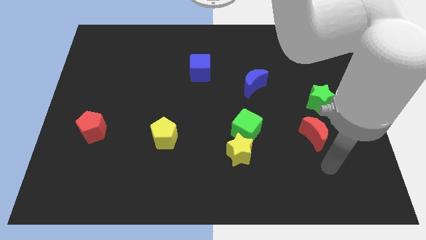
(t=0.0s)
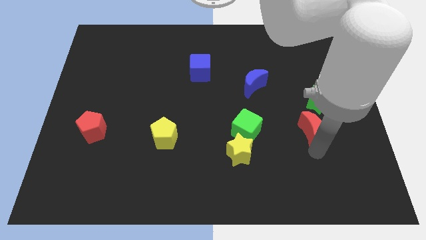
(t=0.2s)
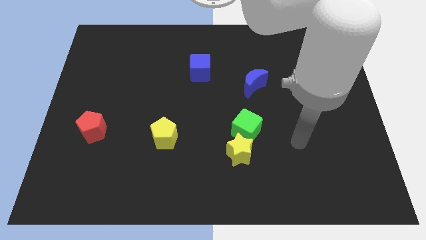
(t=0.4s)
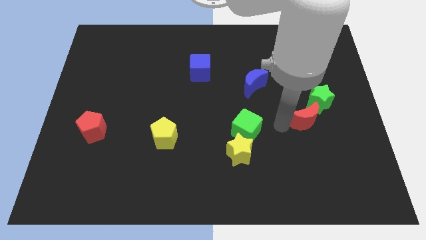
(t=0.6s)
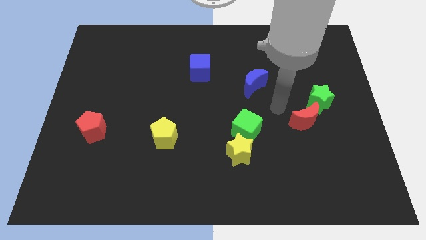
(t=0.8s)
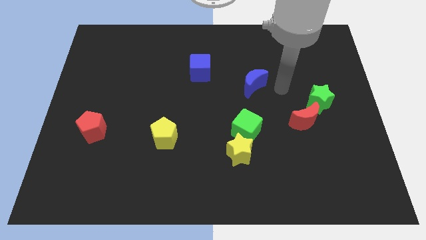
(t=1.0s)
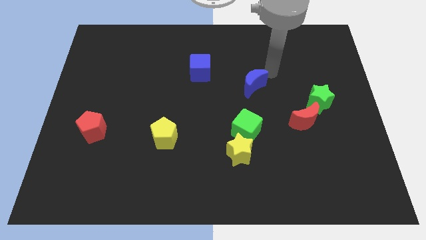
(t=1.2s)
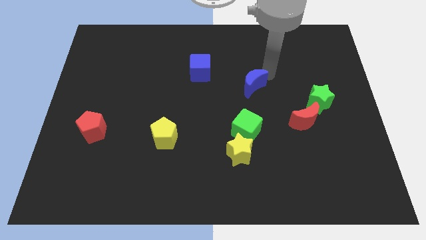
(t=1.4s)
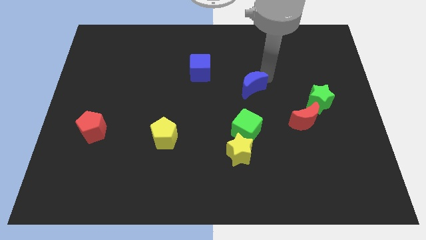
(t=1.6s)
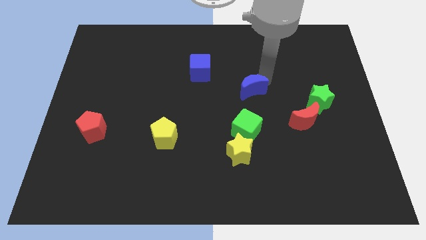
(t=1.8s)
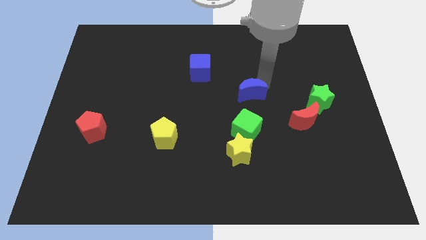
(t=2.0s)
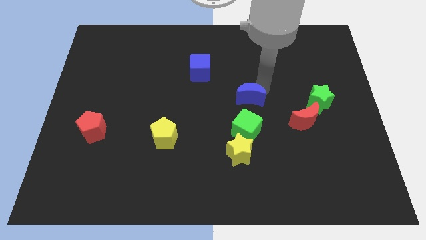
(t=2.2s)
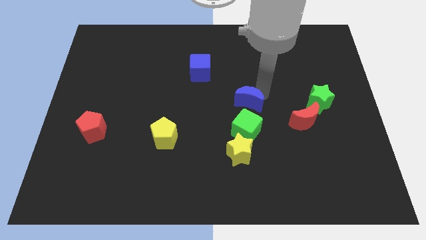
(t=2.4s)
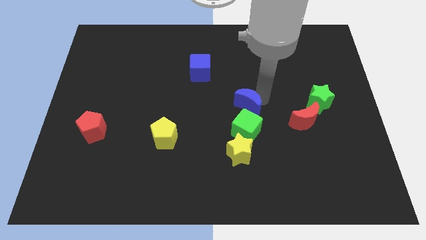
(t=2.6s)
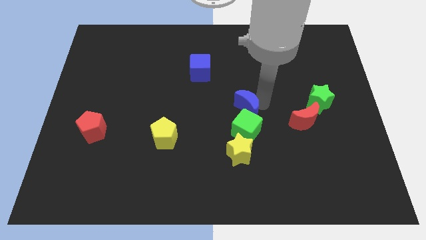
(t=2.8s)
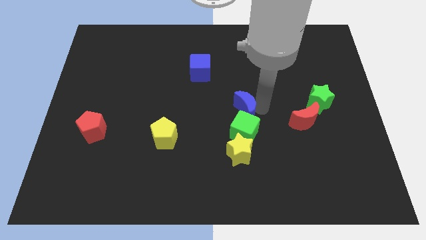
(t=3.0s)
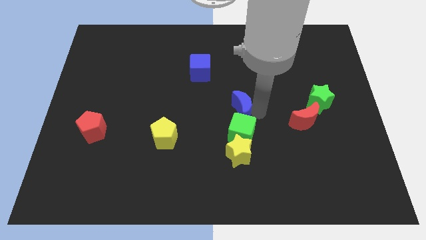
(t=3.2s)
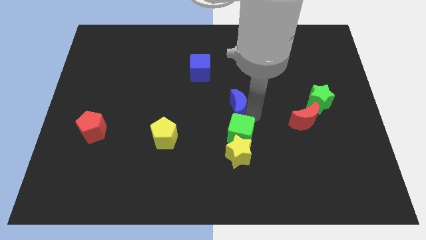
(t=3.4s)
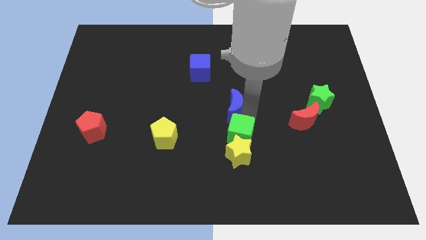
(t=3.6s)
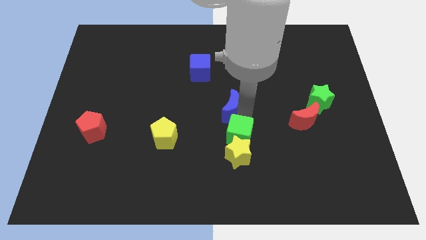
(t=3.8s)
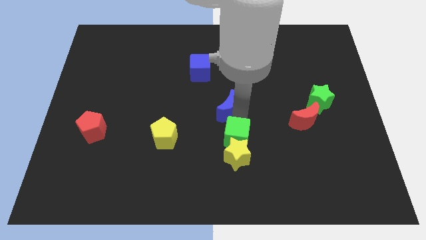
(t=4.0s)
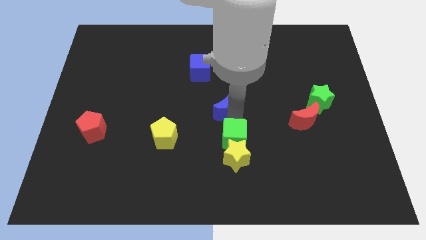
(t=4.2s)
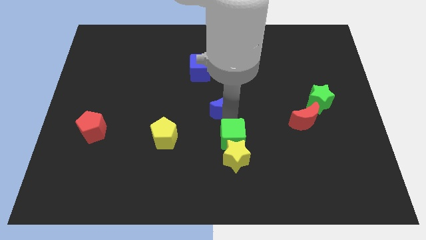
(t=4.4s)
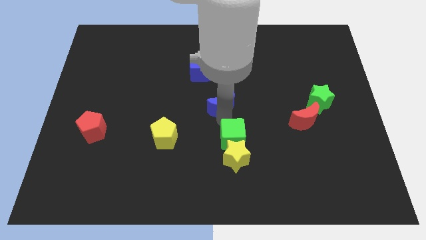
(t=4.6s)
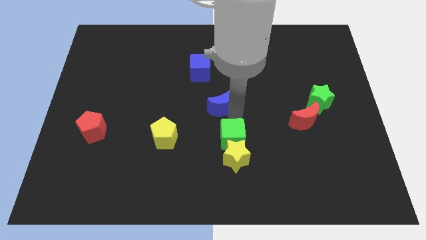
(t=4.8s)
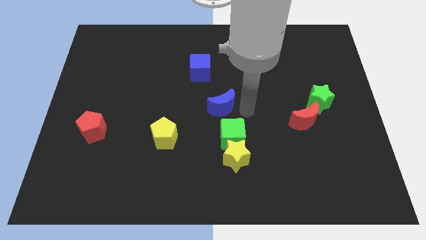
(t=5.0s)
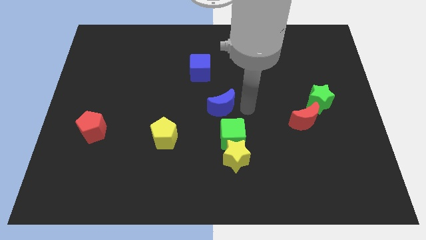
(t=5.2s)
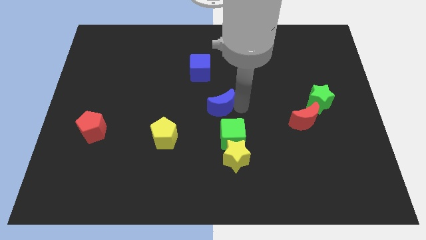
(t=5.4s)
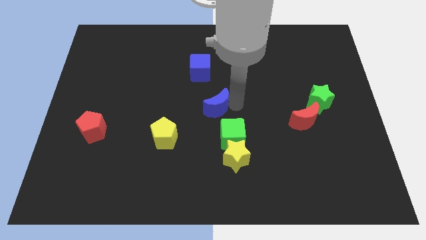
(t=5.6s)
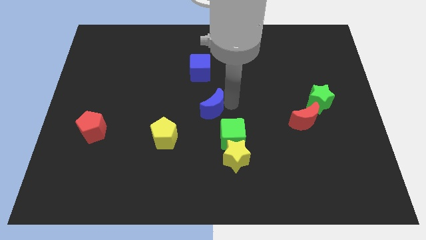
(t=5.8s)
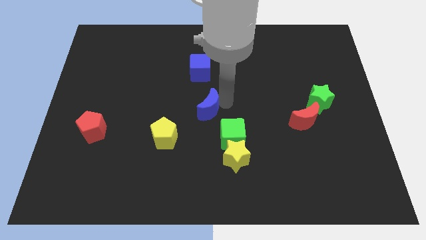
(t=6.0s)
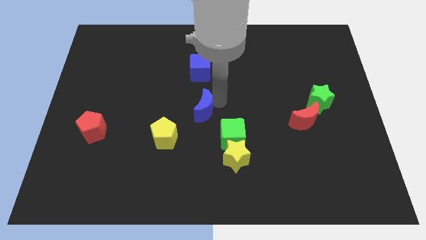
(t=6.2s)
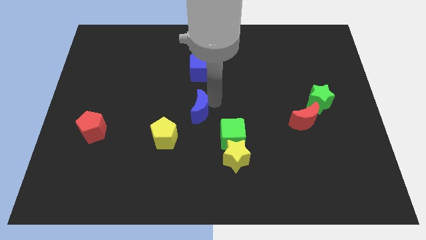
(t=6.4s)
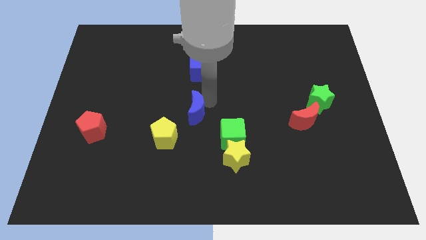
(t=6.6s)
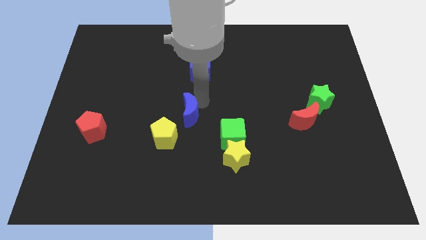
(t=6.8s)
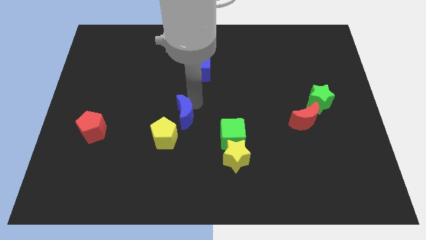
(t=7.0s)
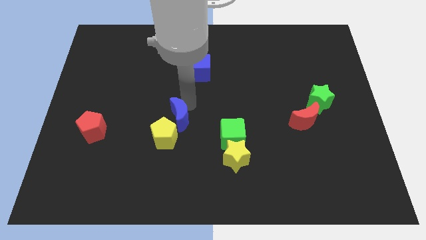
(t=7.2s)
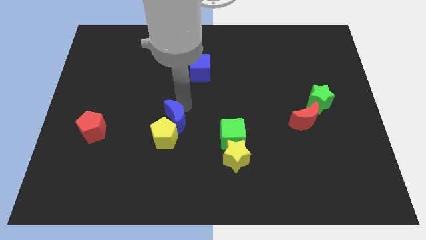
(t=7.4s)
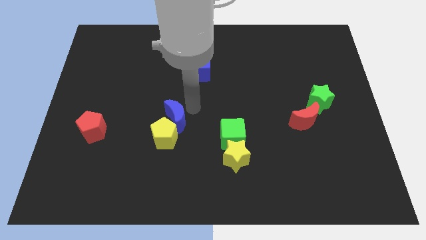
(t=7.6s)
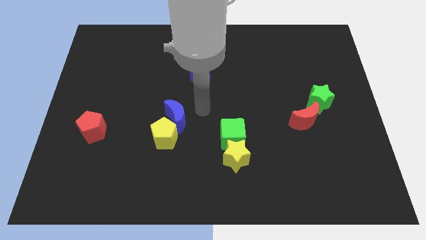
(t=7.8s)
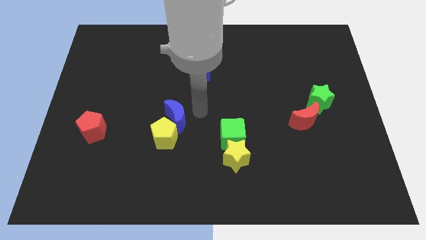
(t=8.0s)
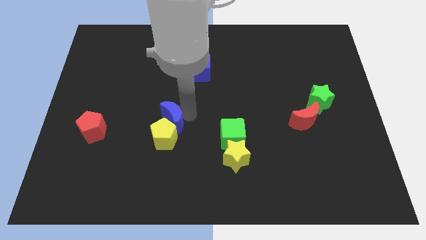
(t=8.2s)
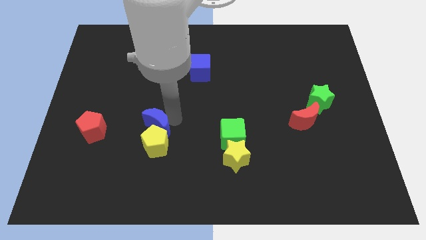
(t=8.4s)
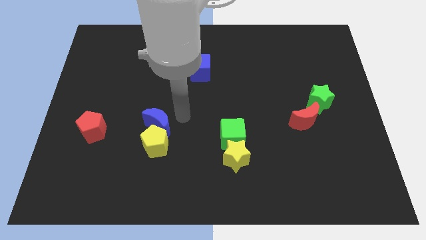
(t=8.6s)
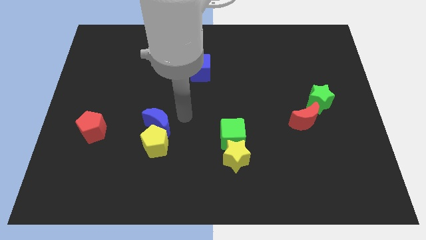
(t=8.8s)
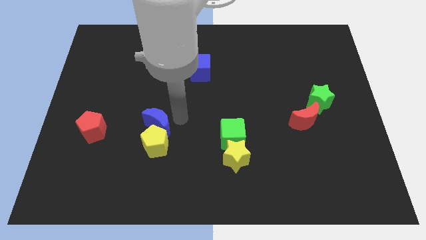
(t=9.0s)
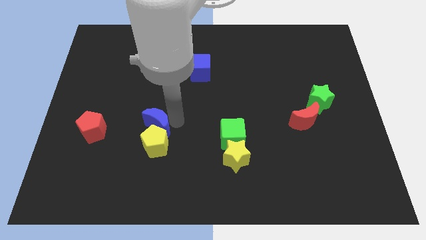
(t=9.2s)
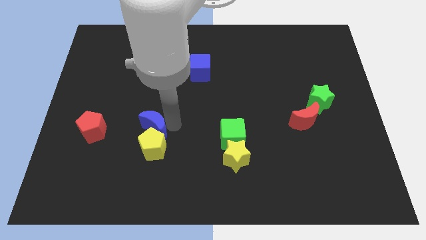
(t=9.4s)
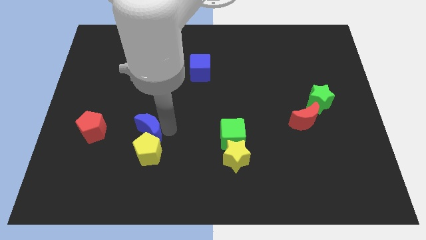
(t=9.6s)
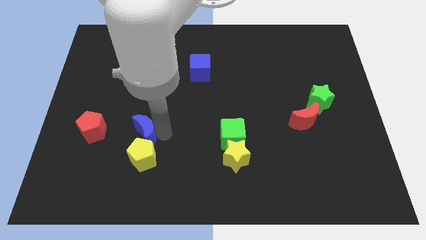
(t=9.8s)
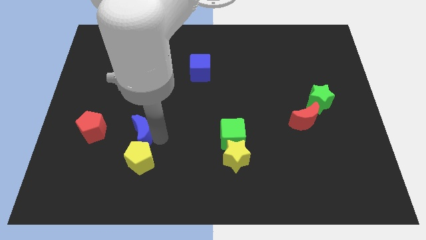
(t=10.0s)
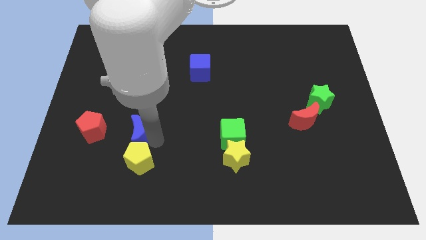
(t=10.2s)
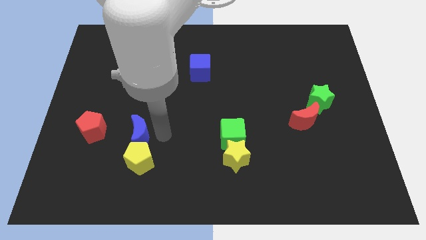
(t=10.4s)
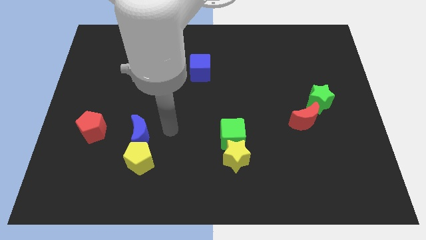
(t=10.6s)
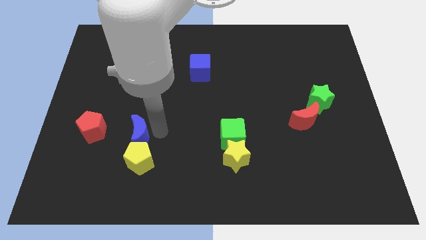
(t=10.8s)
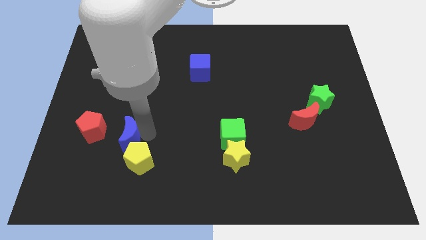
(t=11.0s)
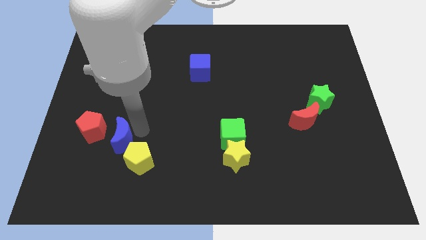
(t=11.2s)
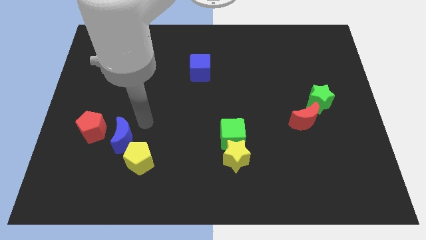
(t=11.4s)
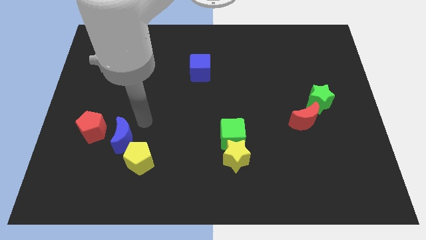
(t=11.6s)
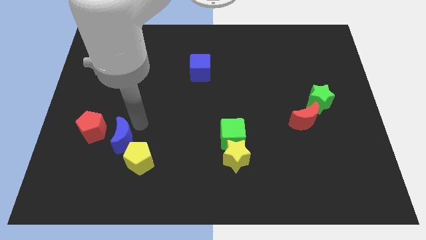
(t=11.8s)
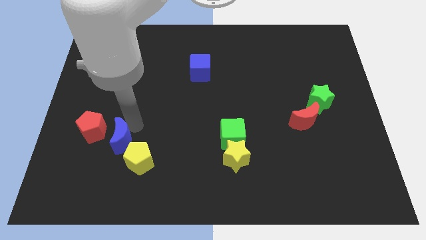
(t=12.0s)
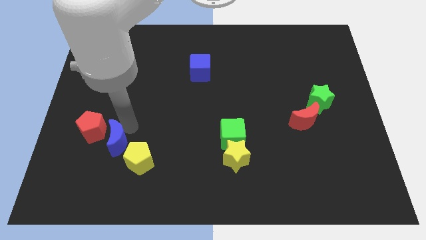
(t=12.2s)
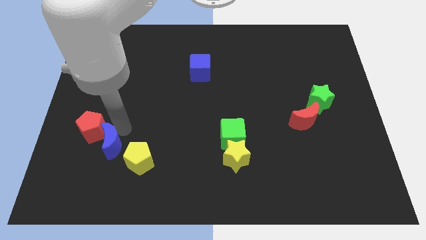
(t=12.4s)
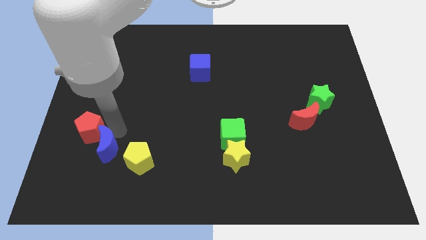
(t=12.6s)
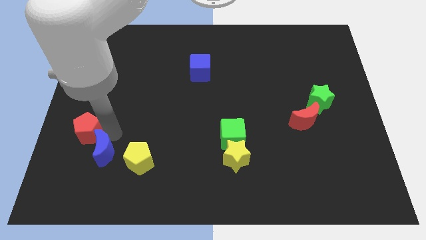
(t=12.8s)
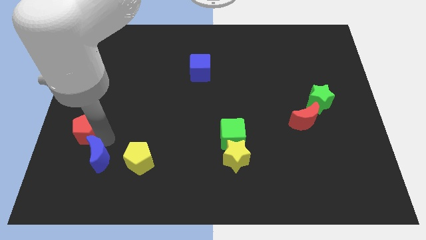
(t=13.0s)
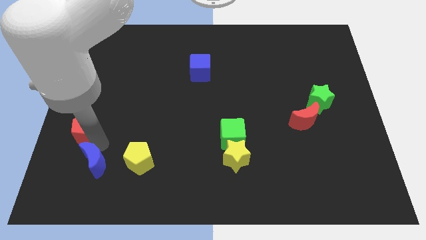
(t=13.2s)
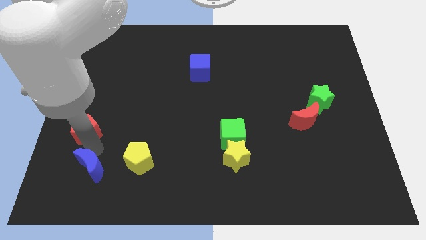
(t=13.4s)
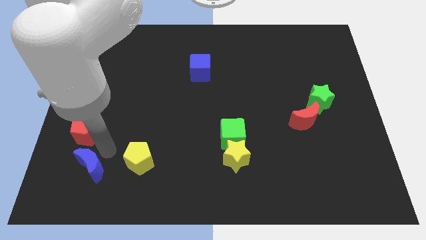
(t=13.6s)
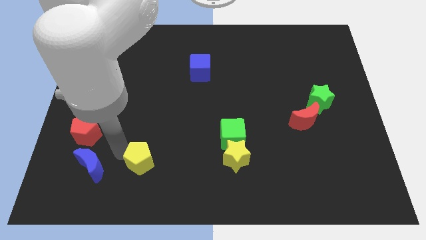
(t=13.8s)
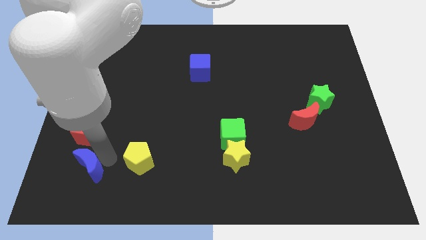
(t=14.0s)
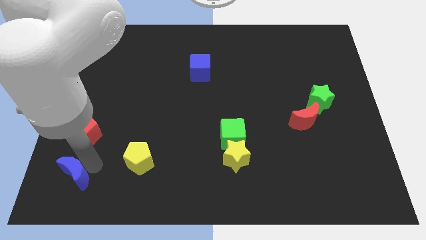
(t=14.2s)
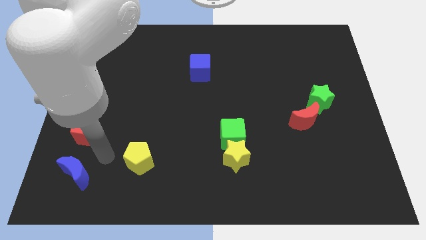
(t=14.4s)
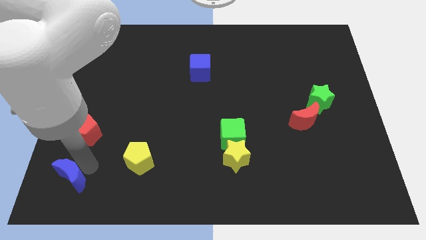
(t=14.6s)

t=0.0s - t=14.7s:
put the blue moon to the bottom left corner
